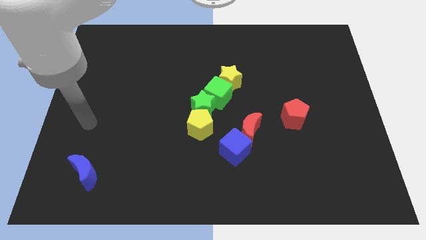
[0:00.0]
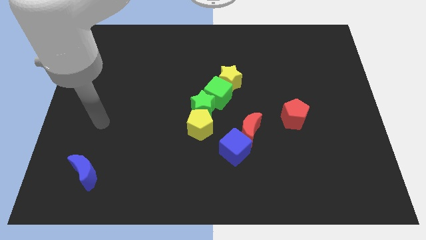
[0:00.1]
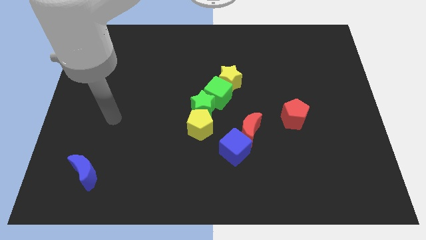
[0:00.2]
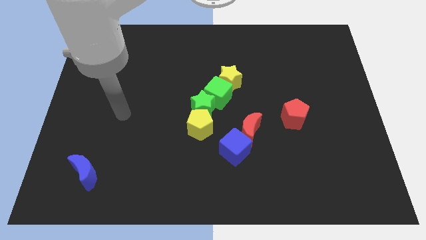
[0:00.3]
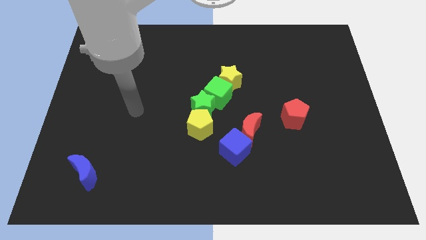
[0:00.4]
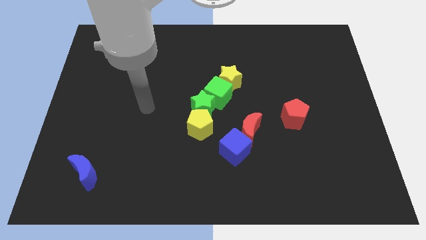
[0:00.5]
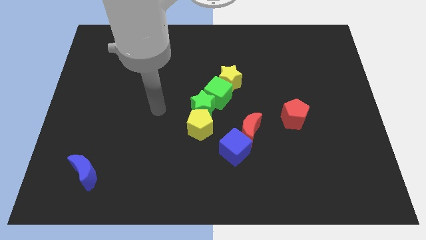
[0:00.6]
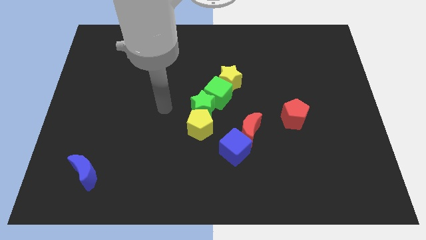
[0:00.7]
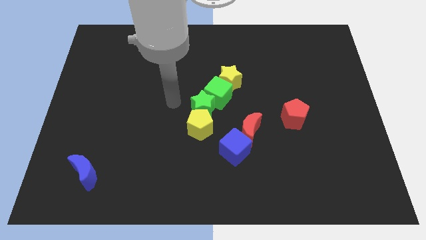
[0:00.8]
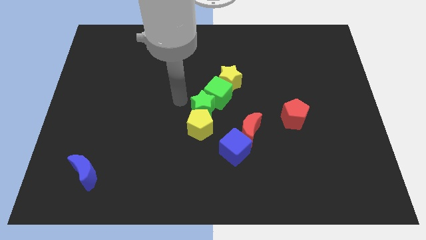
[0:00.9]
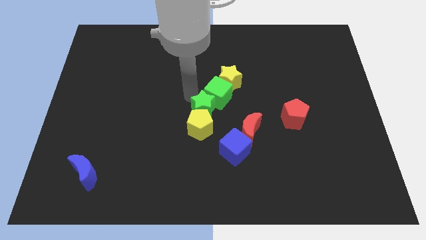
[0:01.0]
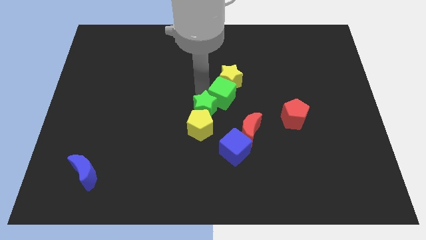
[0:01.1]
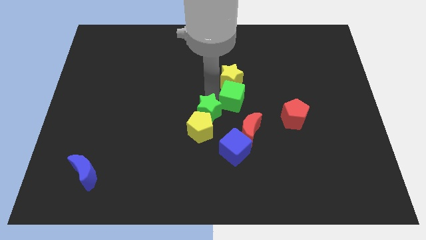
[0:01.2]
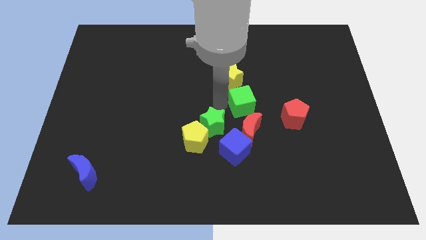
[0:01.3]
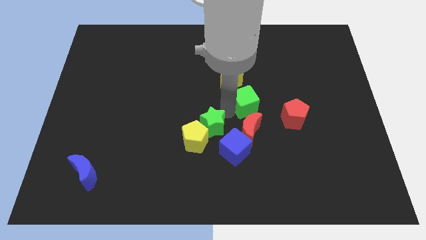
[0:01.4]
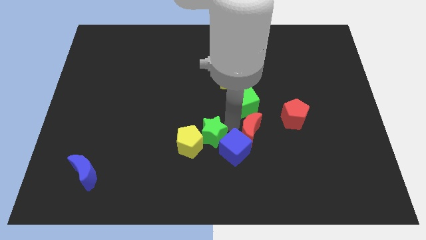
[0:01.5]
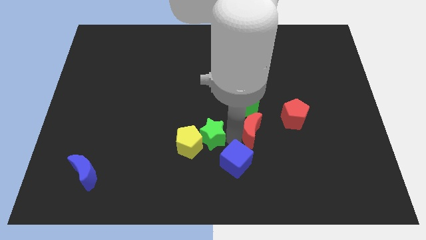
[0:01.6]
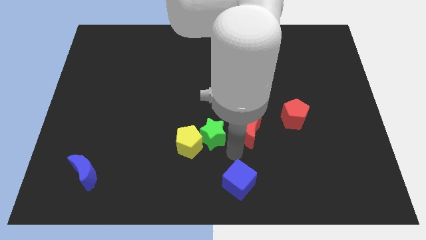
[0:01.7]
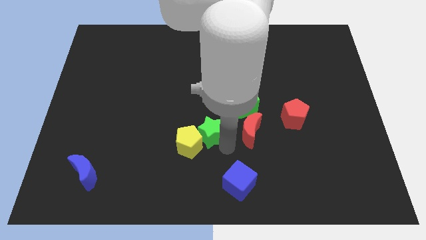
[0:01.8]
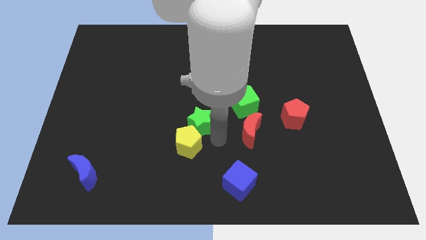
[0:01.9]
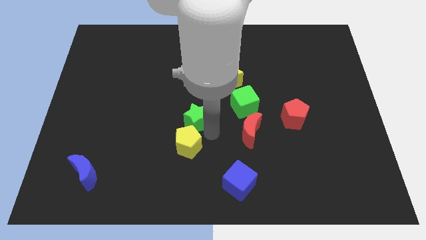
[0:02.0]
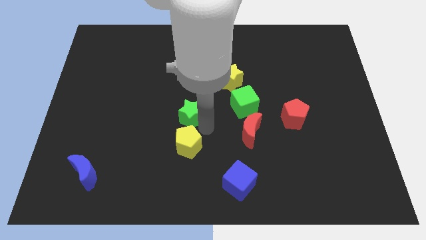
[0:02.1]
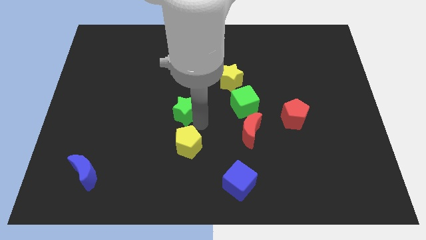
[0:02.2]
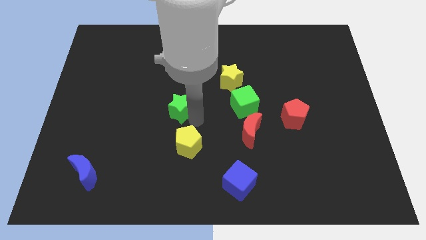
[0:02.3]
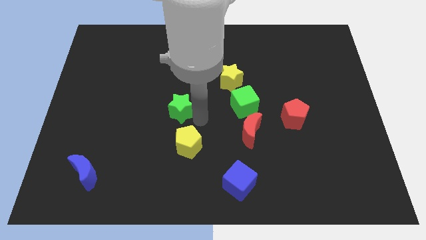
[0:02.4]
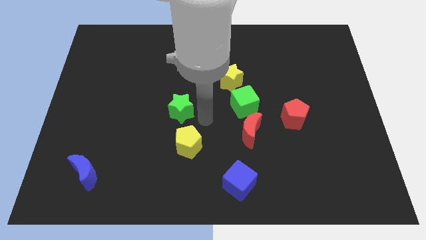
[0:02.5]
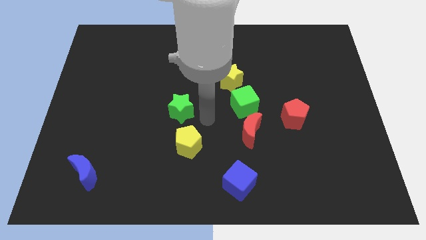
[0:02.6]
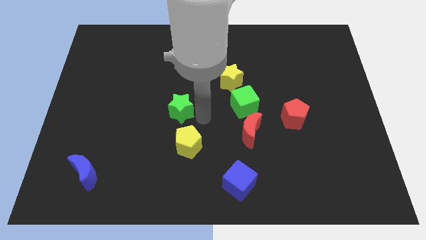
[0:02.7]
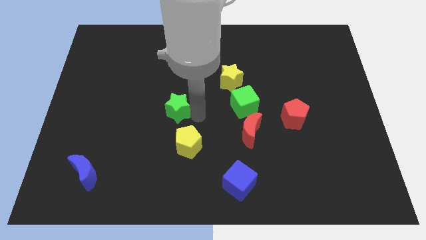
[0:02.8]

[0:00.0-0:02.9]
move the green star away from the yellow pentagon and green cube

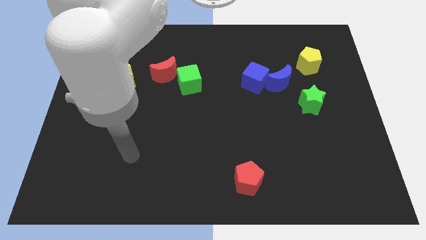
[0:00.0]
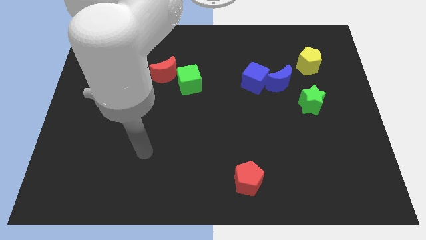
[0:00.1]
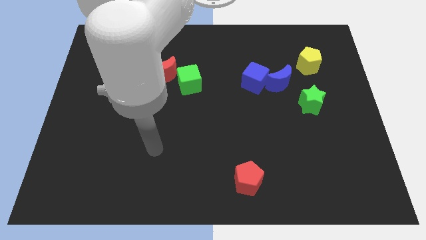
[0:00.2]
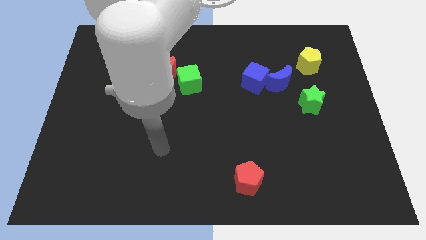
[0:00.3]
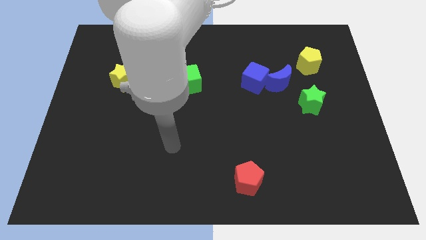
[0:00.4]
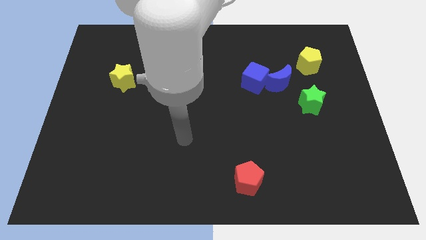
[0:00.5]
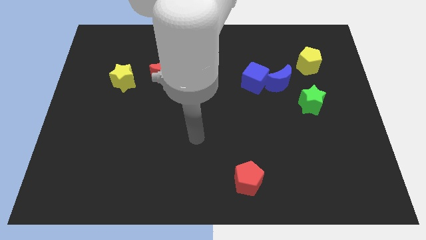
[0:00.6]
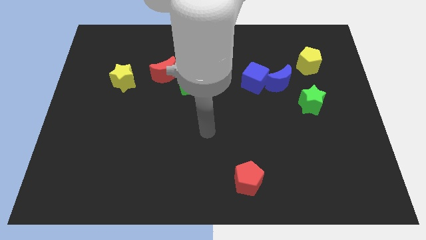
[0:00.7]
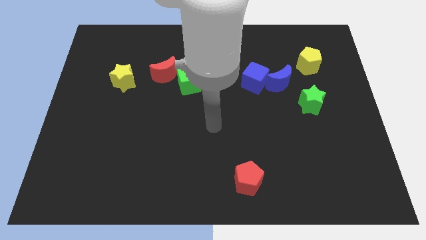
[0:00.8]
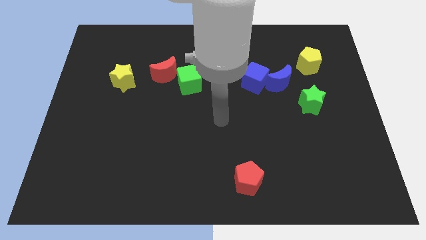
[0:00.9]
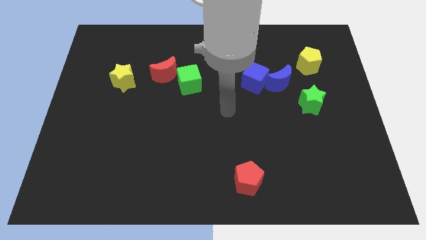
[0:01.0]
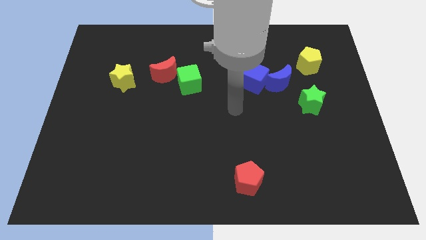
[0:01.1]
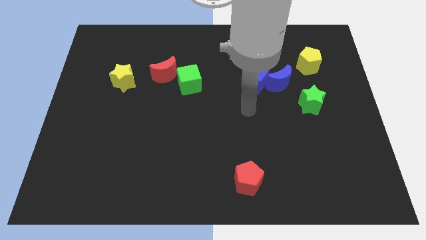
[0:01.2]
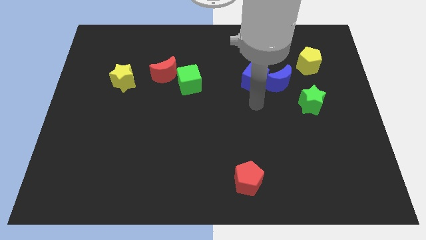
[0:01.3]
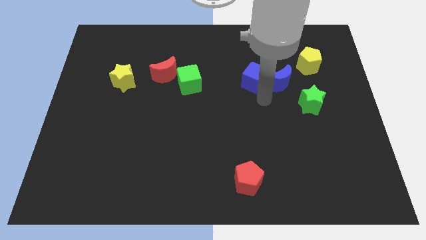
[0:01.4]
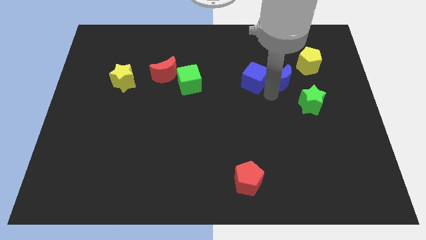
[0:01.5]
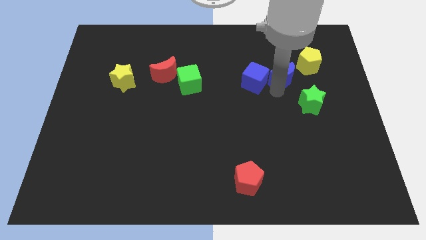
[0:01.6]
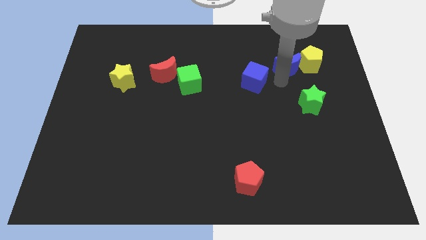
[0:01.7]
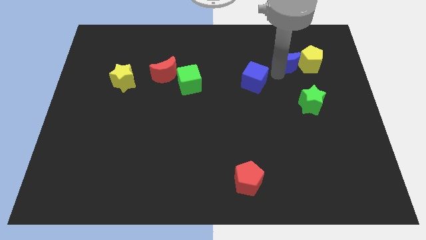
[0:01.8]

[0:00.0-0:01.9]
pull the blue cube apart from the blue moon

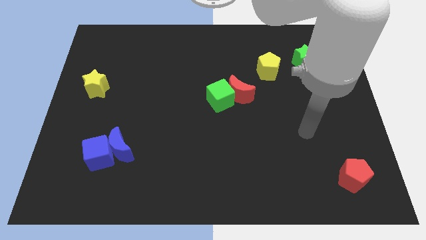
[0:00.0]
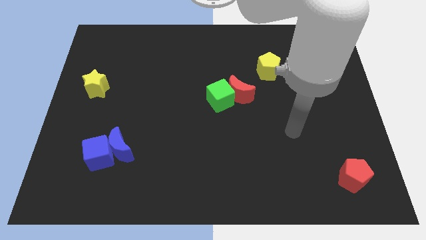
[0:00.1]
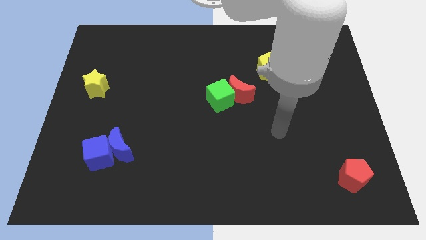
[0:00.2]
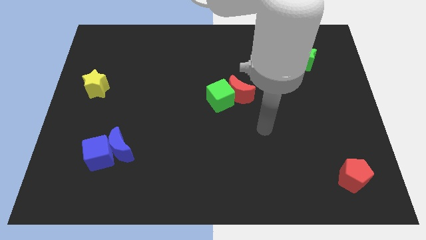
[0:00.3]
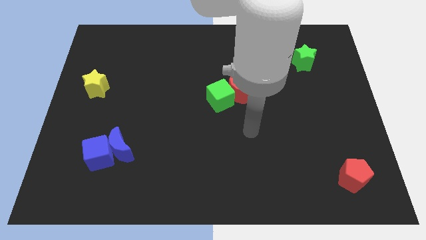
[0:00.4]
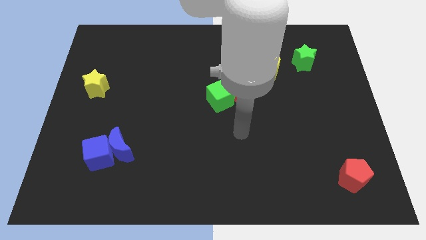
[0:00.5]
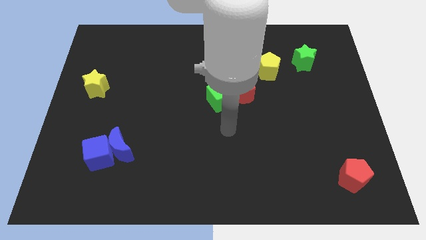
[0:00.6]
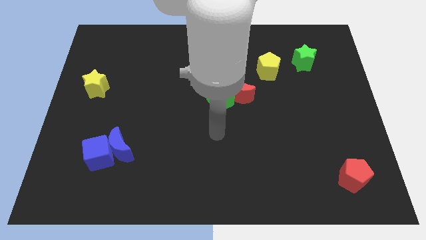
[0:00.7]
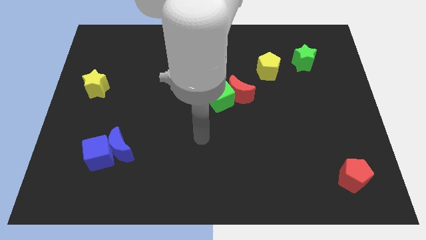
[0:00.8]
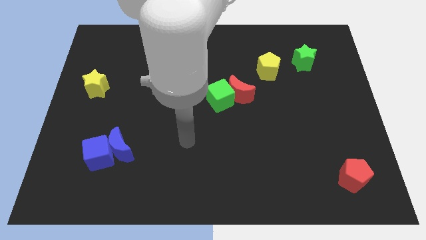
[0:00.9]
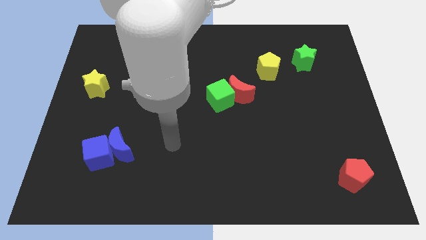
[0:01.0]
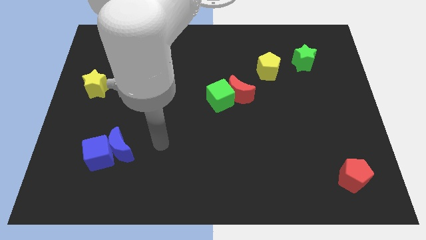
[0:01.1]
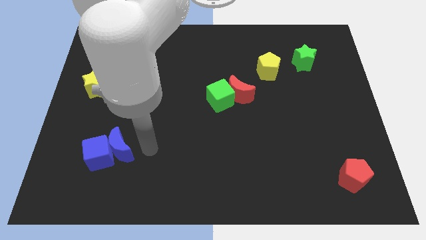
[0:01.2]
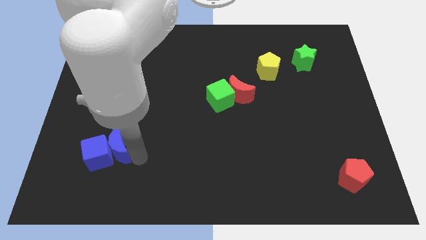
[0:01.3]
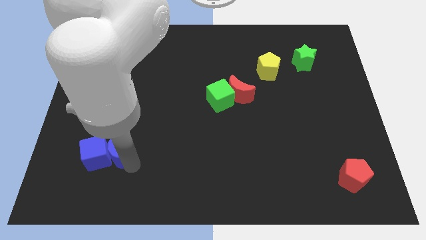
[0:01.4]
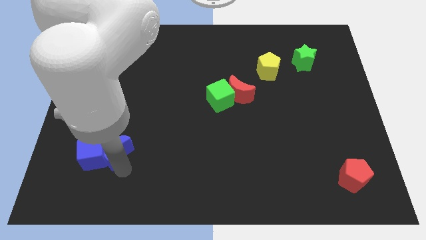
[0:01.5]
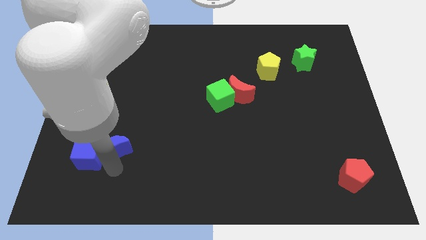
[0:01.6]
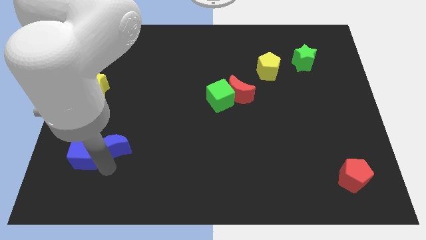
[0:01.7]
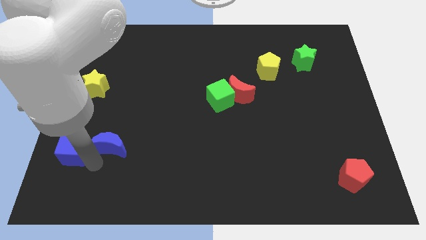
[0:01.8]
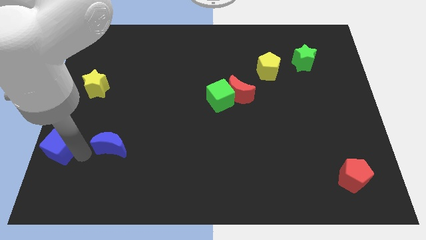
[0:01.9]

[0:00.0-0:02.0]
move the blue moon away from the blue cube

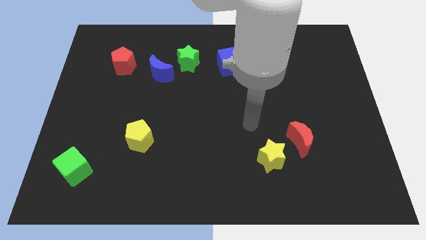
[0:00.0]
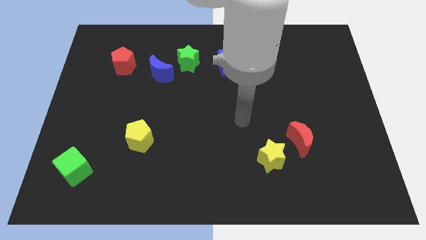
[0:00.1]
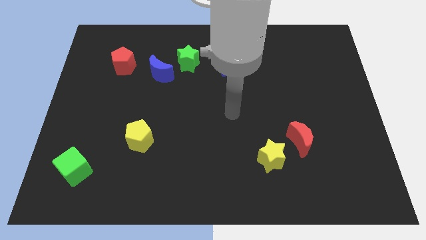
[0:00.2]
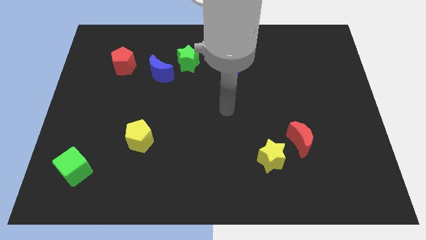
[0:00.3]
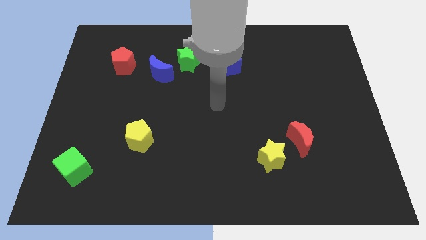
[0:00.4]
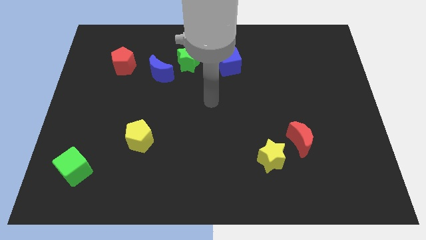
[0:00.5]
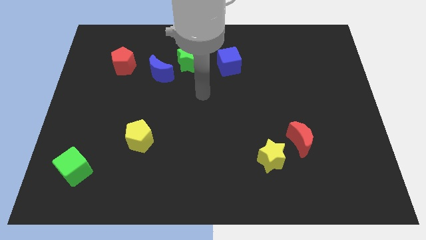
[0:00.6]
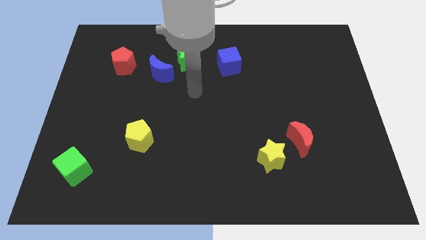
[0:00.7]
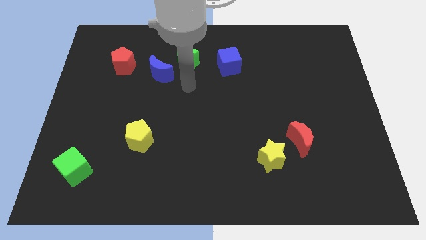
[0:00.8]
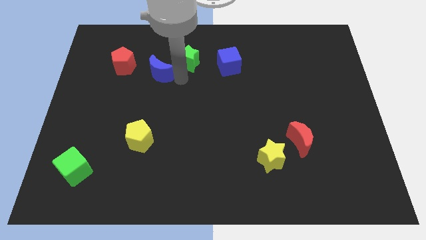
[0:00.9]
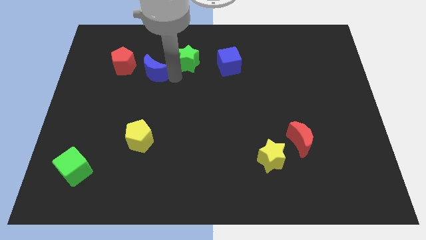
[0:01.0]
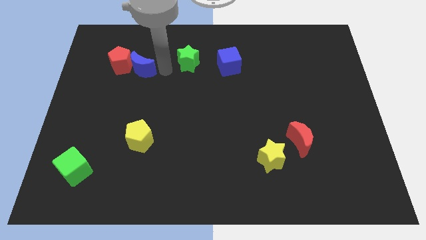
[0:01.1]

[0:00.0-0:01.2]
move the green star away from the blue moon

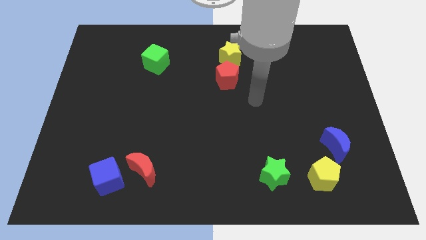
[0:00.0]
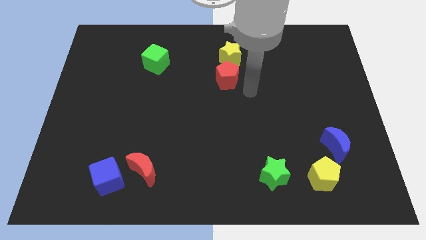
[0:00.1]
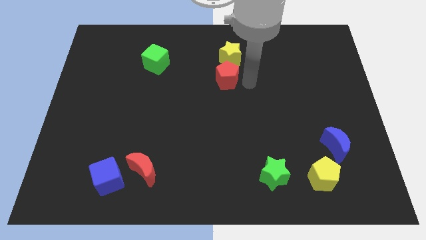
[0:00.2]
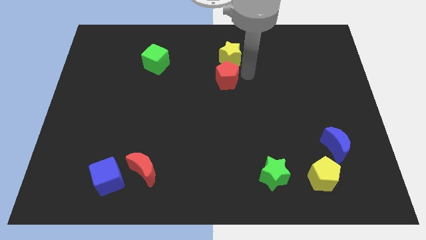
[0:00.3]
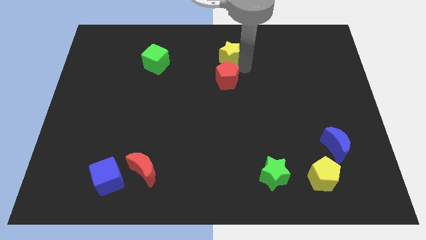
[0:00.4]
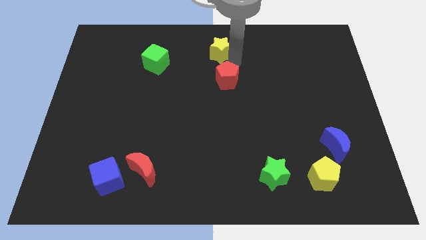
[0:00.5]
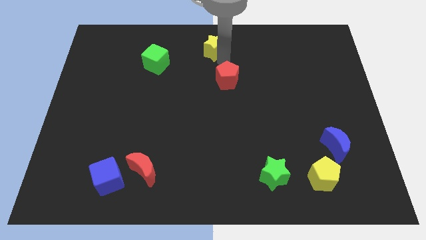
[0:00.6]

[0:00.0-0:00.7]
move the red pentagon away from the yellow star

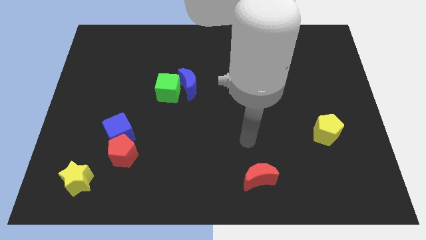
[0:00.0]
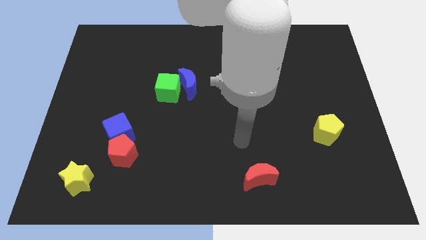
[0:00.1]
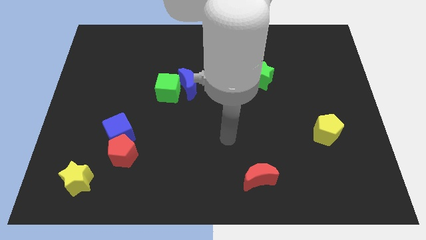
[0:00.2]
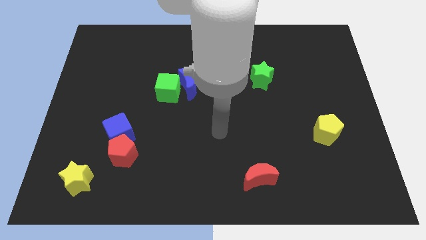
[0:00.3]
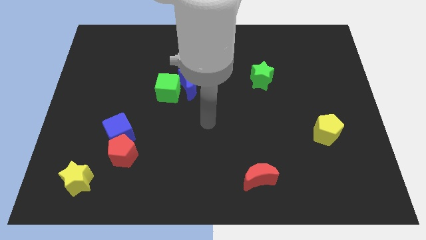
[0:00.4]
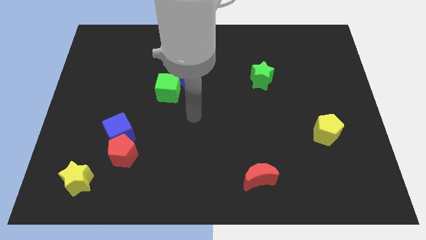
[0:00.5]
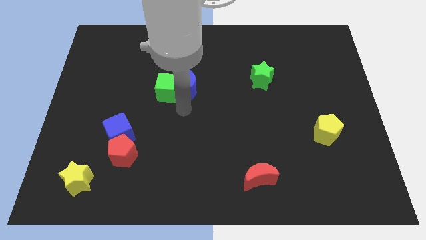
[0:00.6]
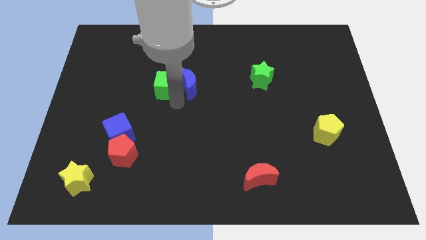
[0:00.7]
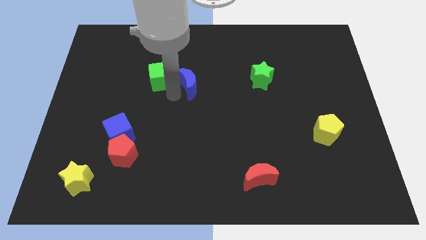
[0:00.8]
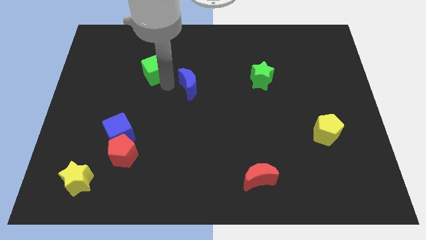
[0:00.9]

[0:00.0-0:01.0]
pull the blue moon apart from the green cube
